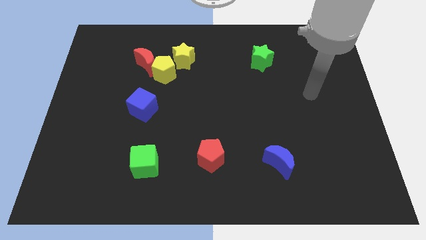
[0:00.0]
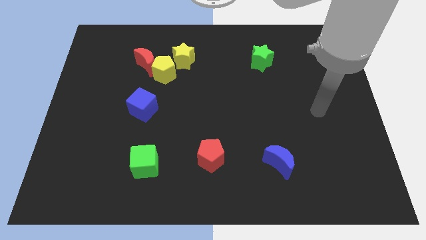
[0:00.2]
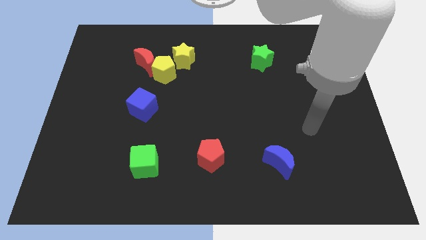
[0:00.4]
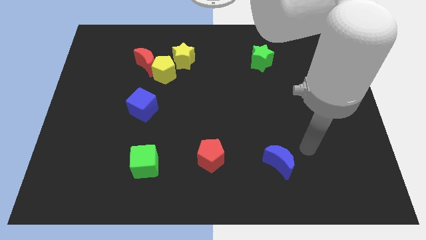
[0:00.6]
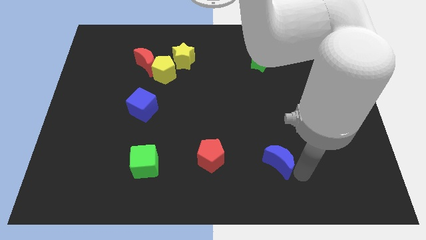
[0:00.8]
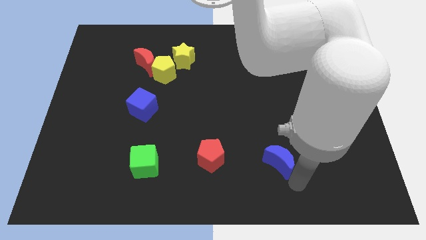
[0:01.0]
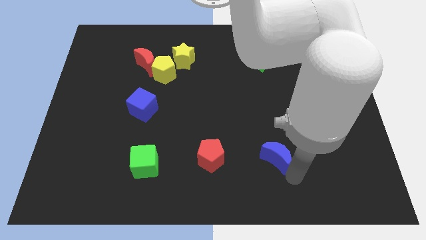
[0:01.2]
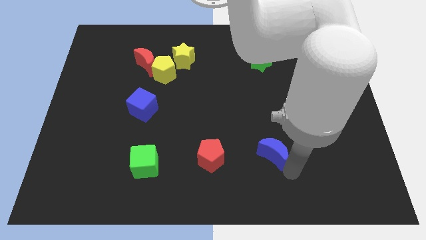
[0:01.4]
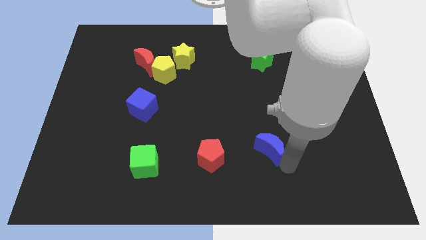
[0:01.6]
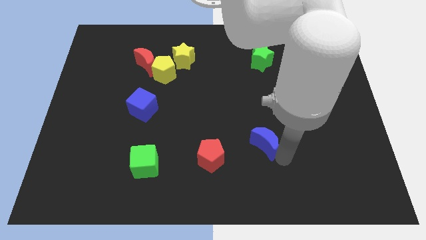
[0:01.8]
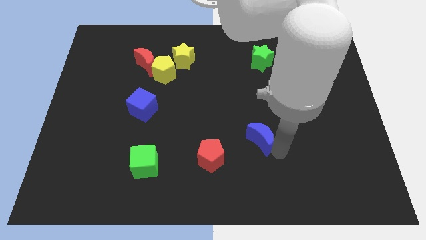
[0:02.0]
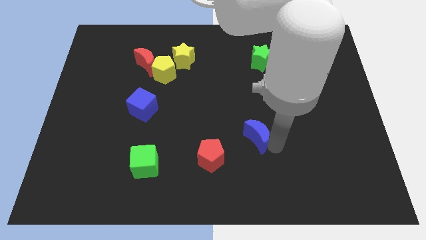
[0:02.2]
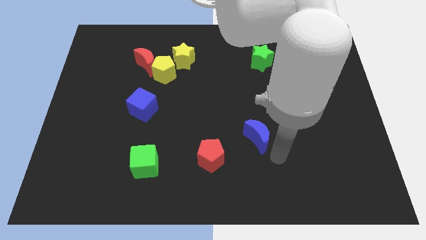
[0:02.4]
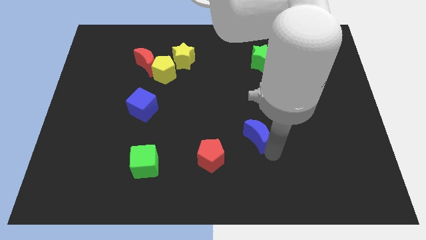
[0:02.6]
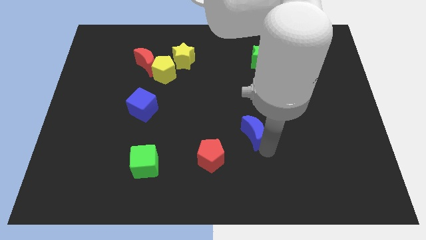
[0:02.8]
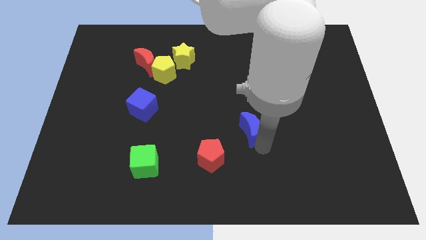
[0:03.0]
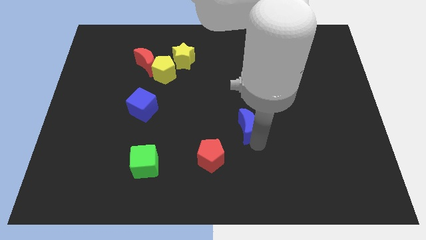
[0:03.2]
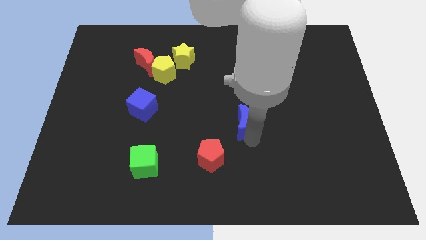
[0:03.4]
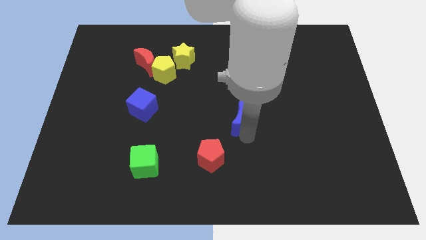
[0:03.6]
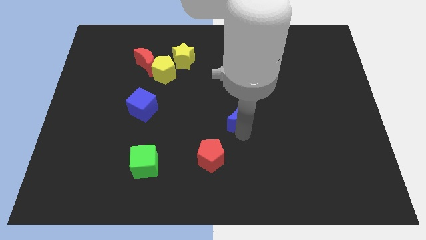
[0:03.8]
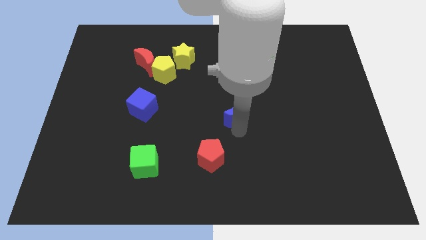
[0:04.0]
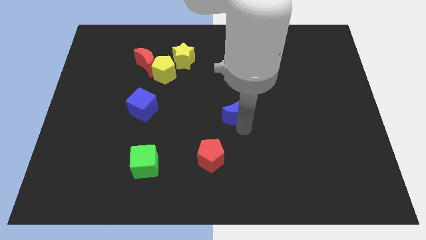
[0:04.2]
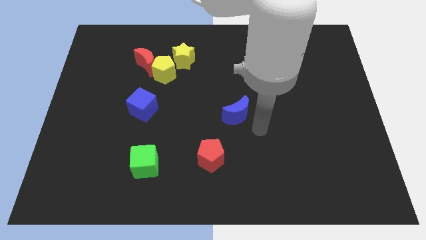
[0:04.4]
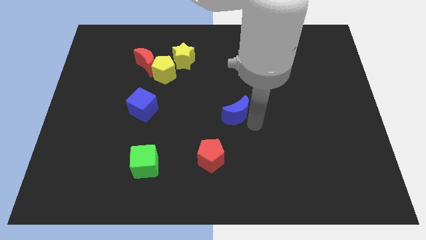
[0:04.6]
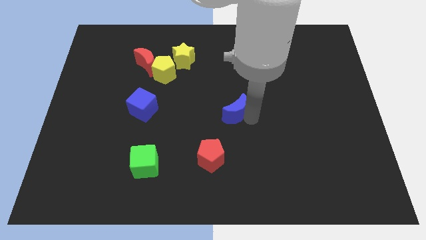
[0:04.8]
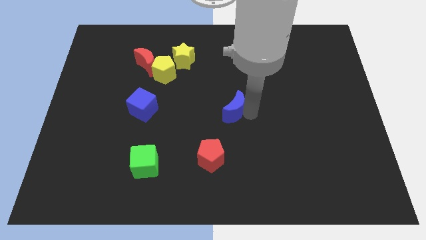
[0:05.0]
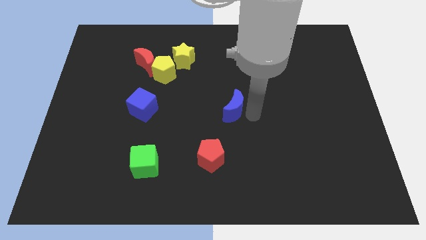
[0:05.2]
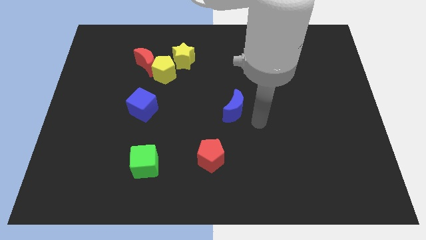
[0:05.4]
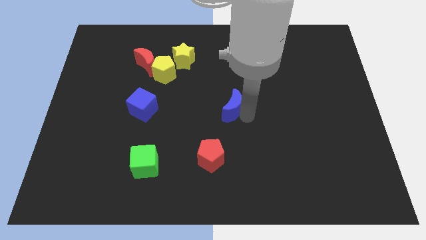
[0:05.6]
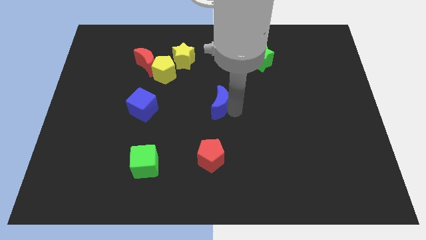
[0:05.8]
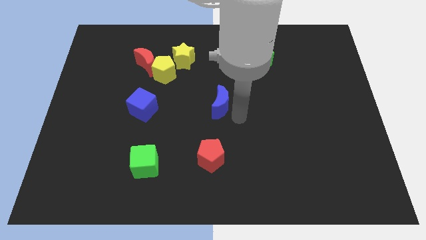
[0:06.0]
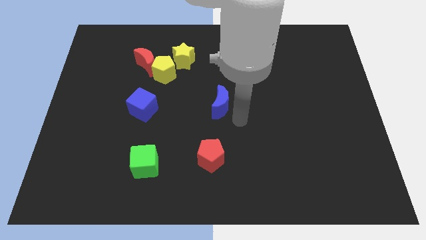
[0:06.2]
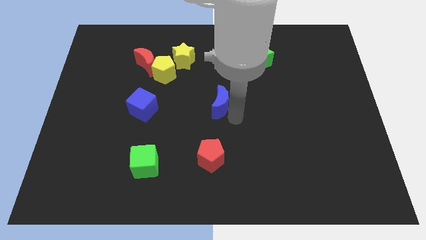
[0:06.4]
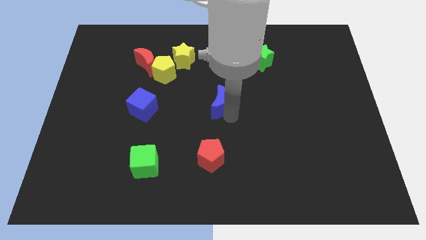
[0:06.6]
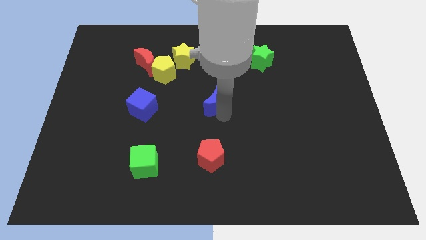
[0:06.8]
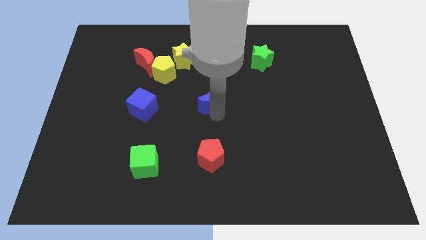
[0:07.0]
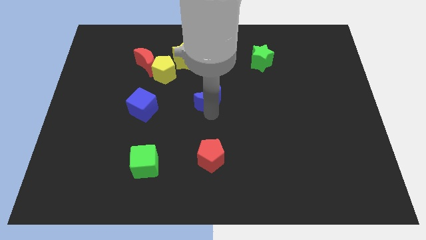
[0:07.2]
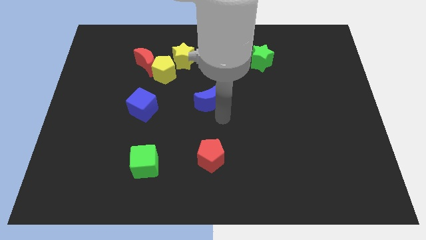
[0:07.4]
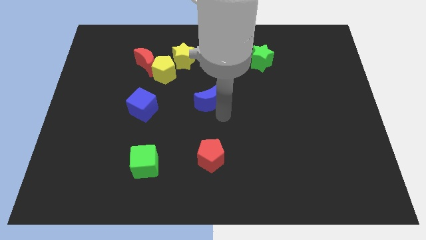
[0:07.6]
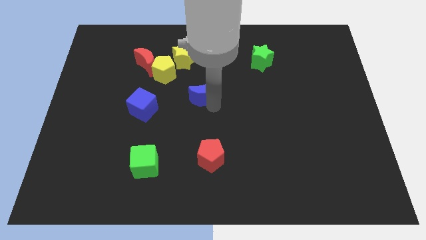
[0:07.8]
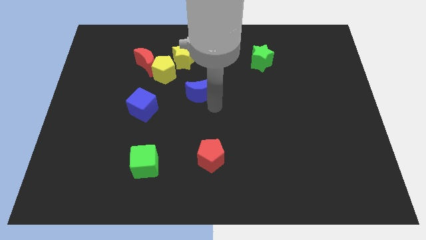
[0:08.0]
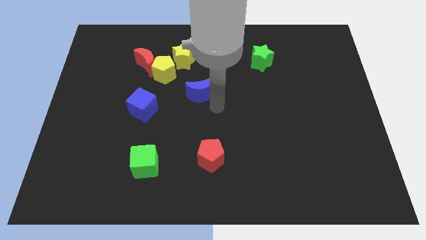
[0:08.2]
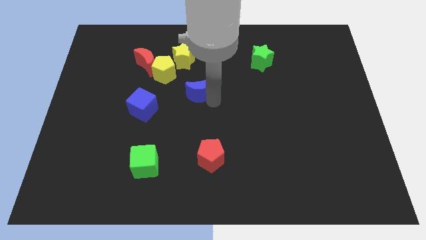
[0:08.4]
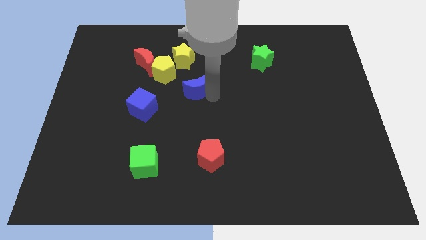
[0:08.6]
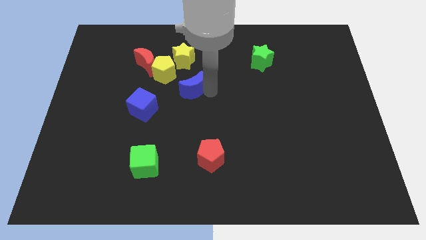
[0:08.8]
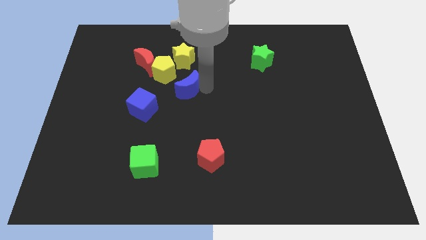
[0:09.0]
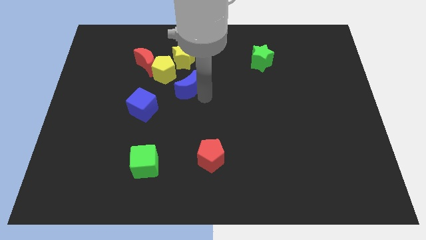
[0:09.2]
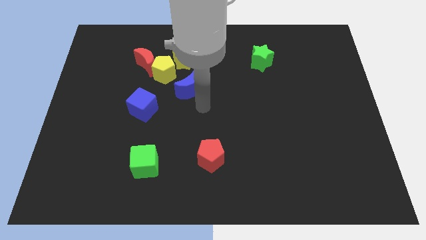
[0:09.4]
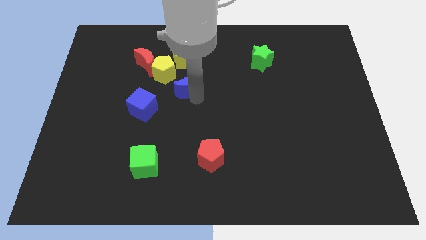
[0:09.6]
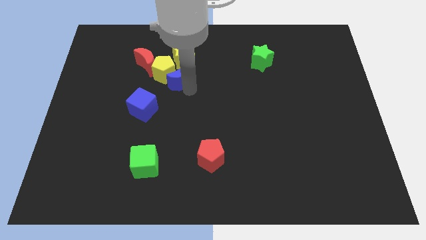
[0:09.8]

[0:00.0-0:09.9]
slide the blue moon to the yellow pentagon

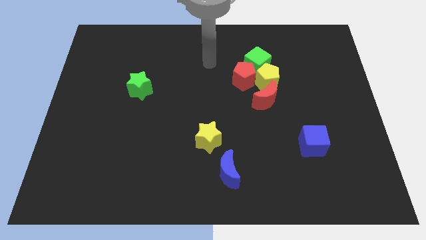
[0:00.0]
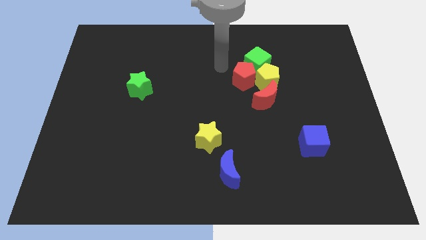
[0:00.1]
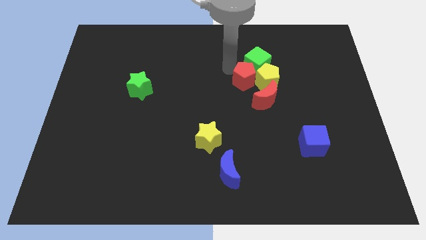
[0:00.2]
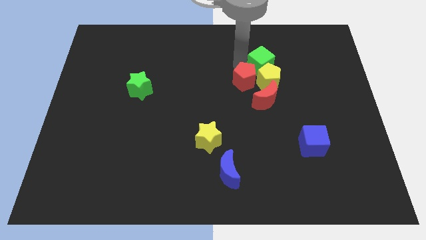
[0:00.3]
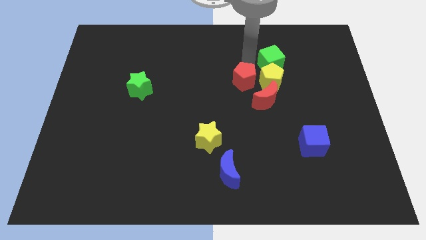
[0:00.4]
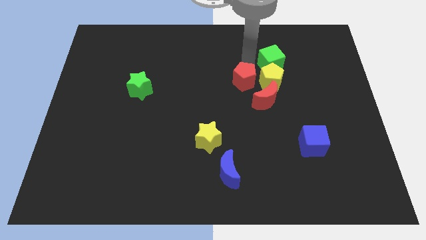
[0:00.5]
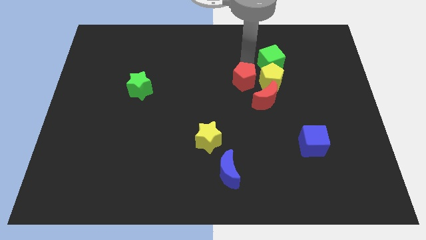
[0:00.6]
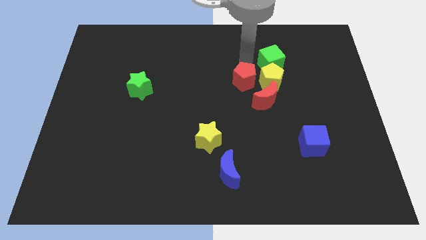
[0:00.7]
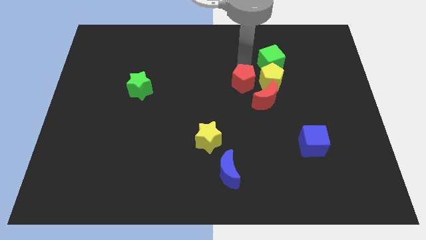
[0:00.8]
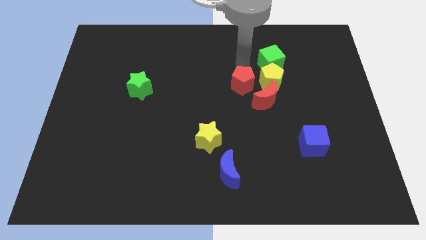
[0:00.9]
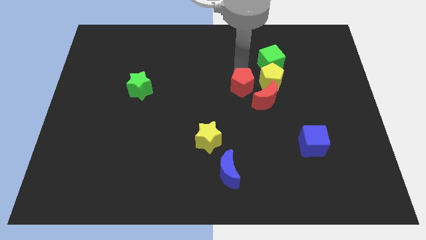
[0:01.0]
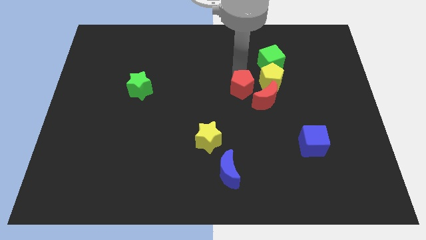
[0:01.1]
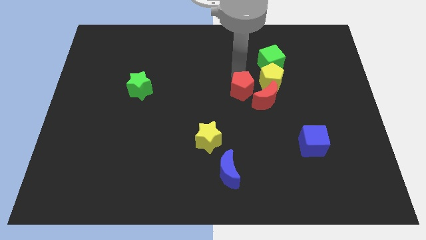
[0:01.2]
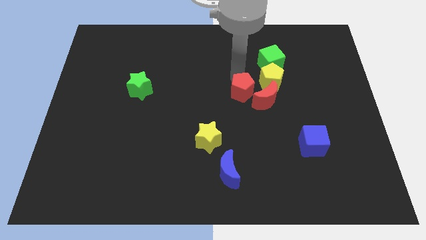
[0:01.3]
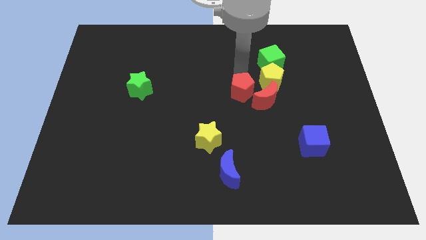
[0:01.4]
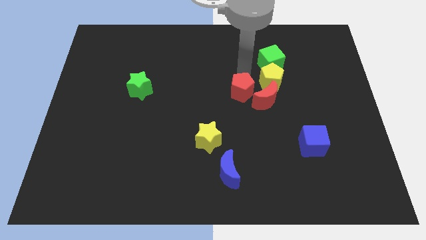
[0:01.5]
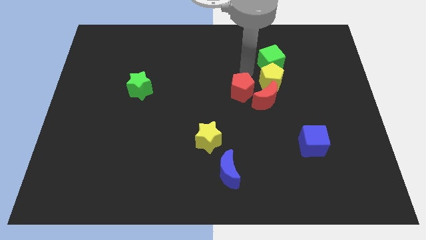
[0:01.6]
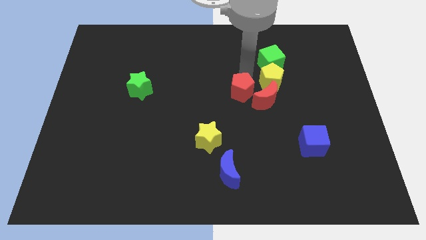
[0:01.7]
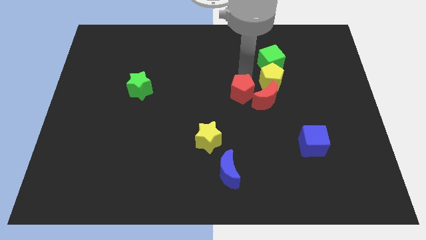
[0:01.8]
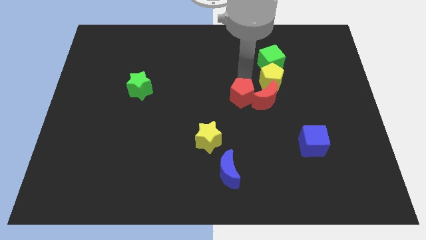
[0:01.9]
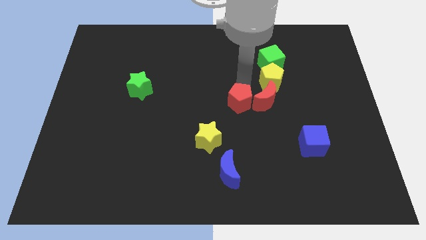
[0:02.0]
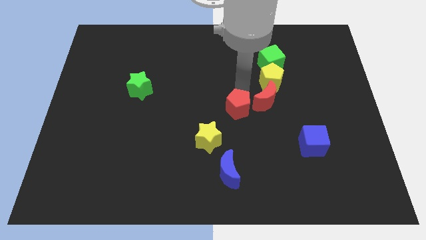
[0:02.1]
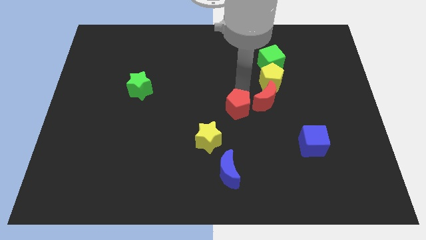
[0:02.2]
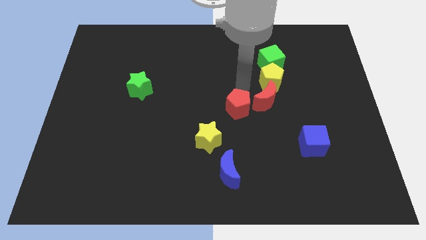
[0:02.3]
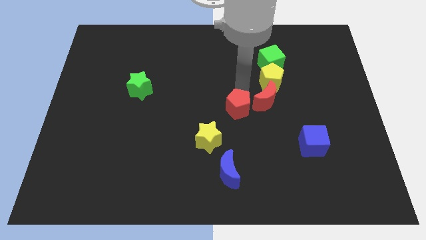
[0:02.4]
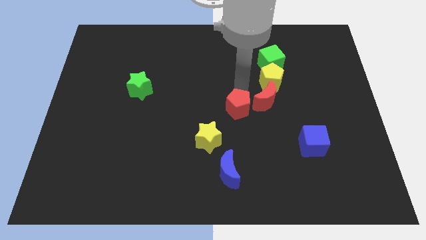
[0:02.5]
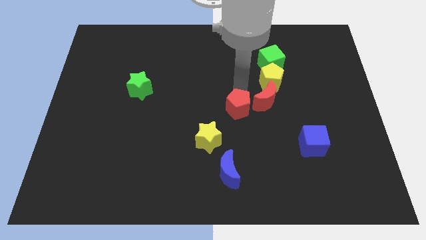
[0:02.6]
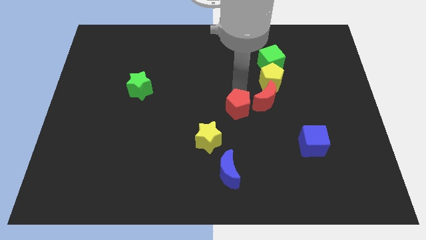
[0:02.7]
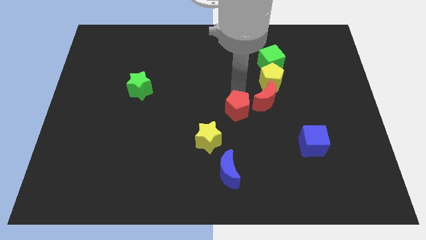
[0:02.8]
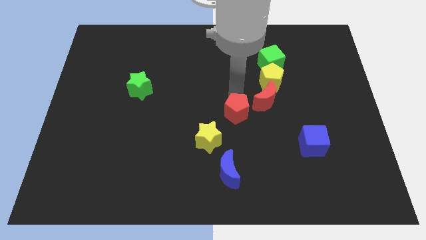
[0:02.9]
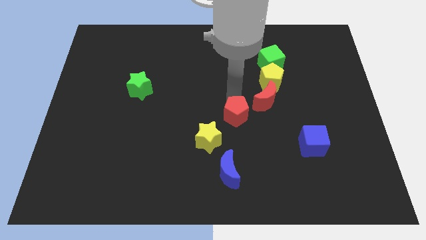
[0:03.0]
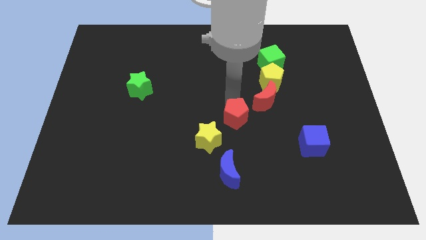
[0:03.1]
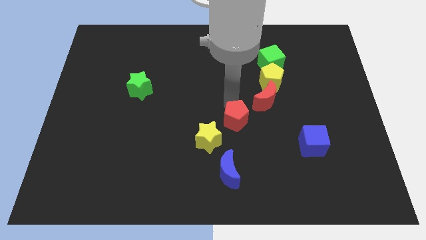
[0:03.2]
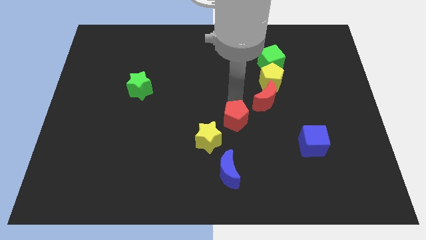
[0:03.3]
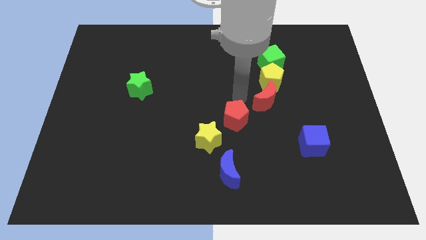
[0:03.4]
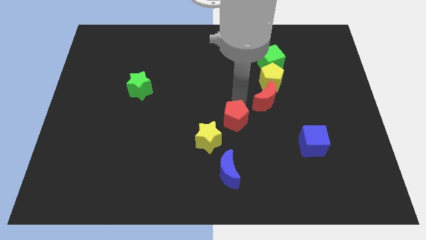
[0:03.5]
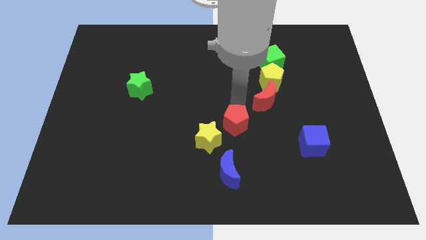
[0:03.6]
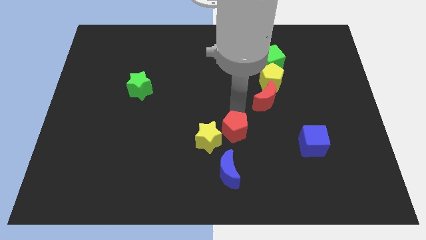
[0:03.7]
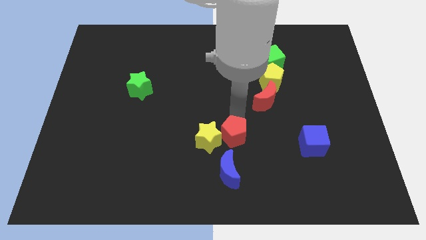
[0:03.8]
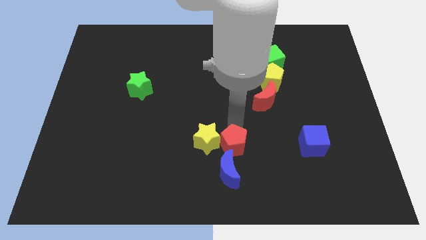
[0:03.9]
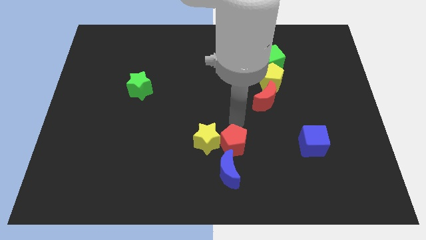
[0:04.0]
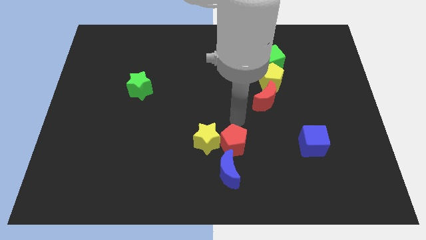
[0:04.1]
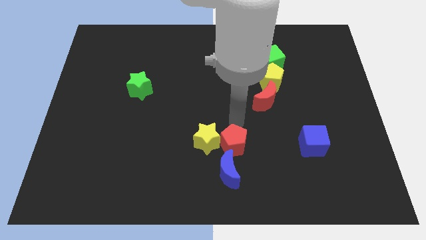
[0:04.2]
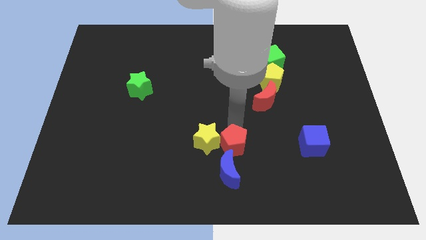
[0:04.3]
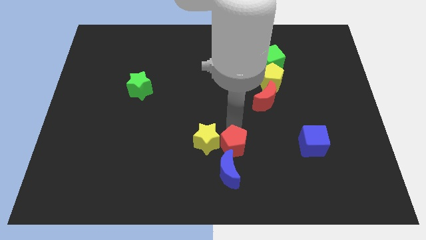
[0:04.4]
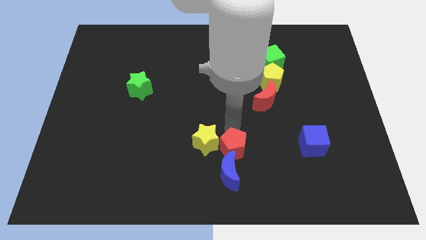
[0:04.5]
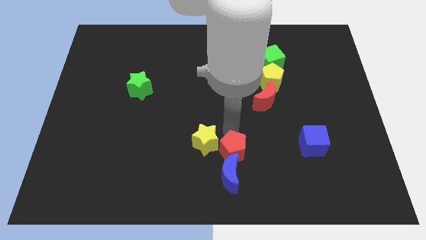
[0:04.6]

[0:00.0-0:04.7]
push the red pentagon next to the blue moon
